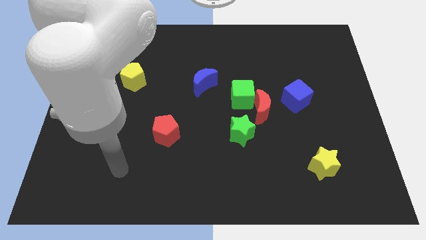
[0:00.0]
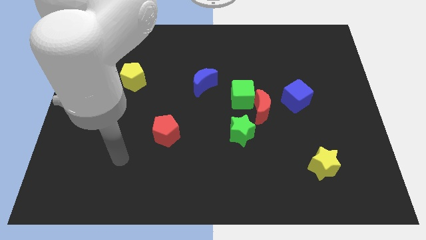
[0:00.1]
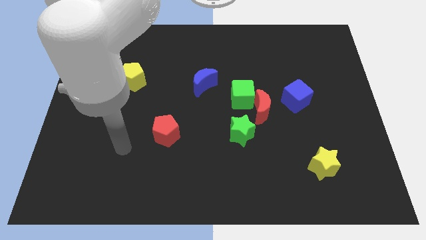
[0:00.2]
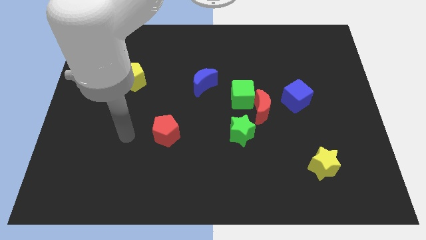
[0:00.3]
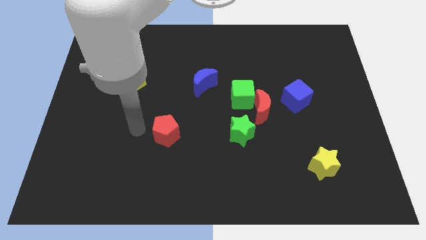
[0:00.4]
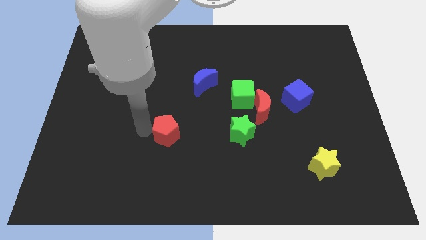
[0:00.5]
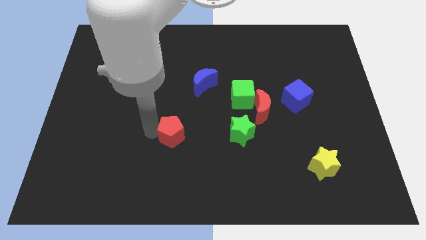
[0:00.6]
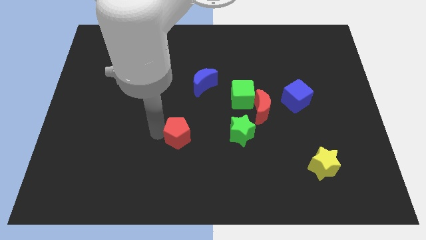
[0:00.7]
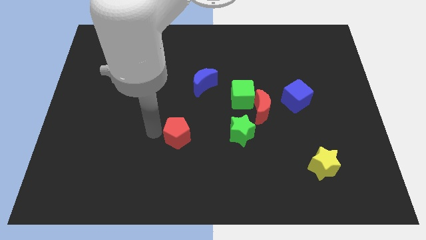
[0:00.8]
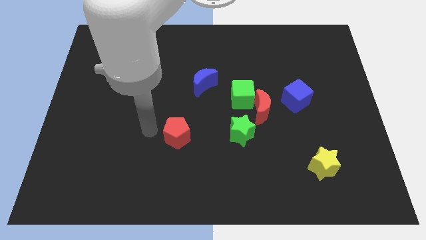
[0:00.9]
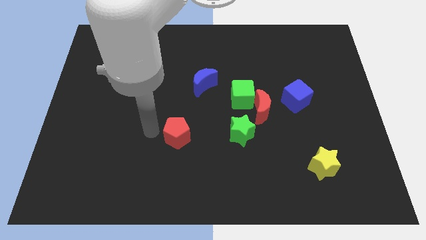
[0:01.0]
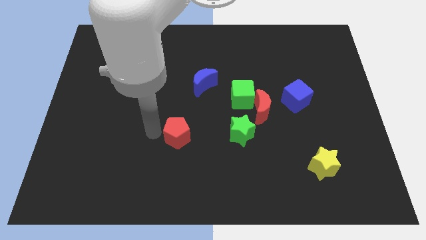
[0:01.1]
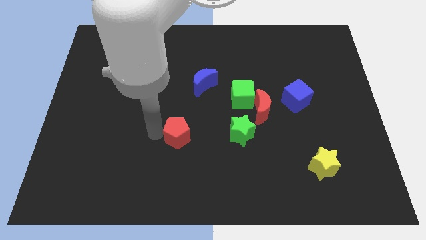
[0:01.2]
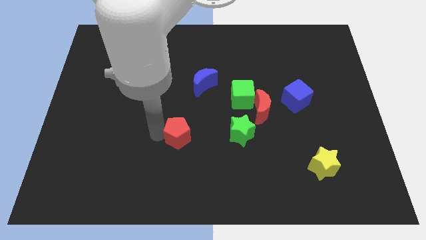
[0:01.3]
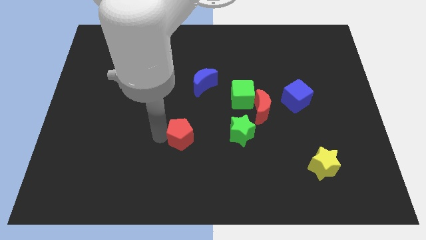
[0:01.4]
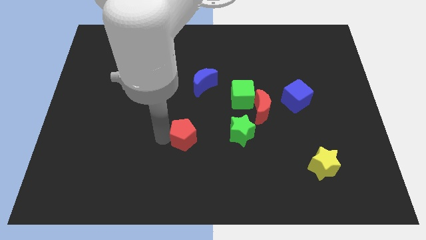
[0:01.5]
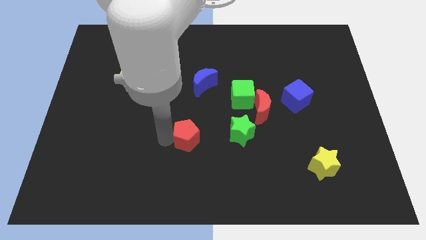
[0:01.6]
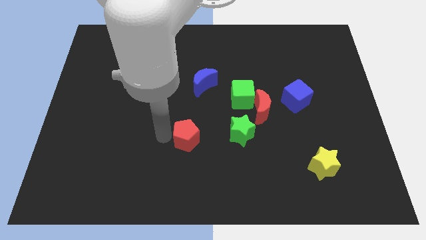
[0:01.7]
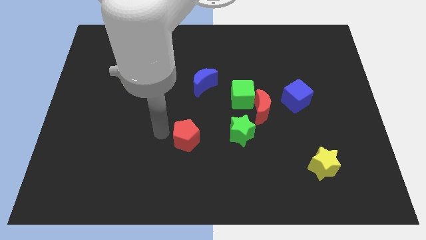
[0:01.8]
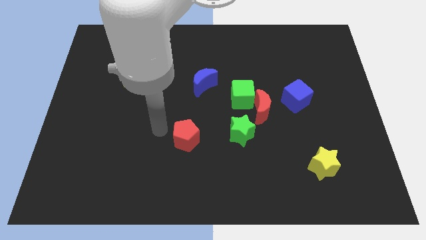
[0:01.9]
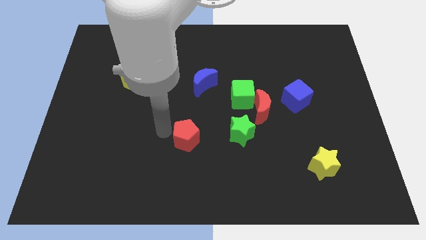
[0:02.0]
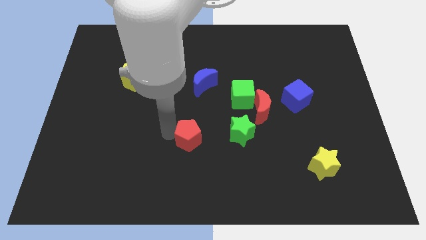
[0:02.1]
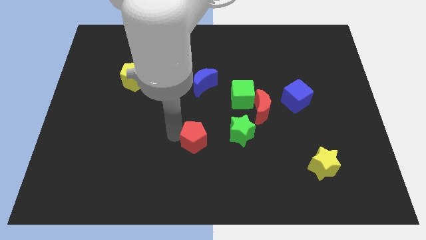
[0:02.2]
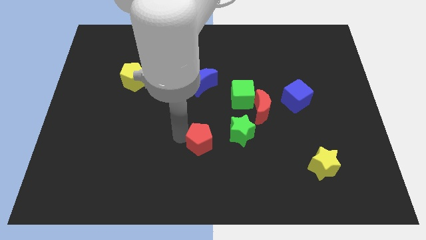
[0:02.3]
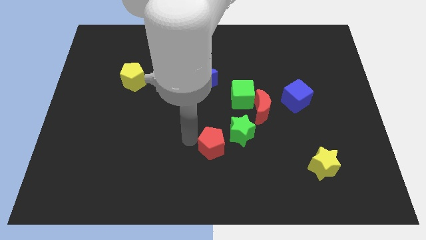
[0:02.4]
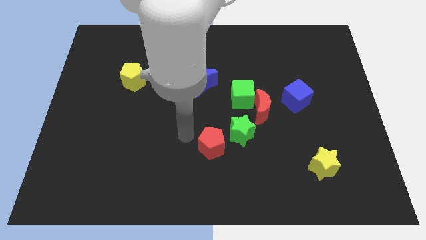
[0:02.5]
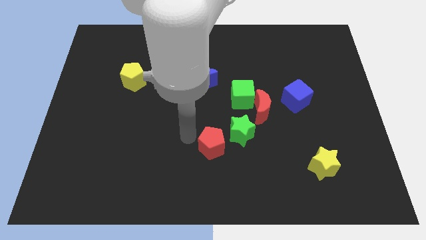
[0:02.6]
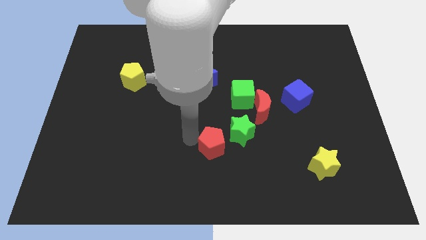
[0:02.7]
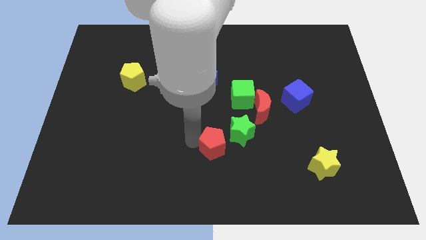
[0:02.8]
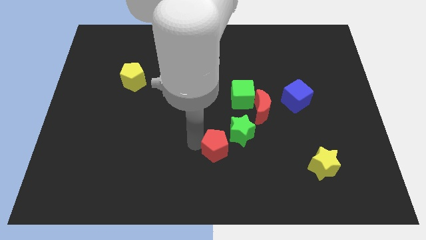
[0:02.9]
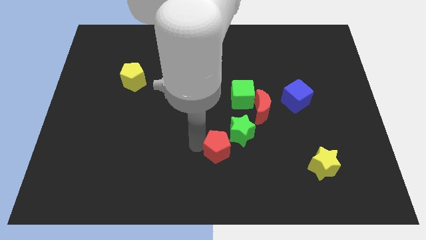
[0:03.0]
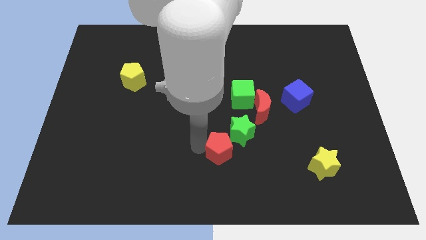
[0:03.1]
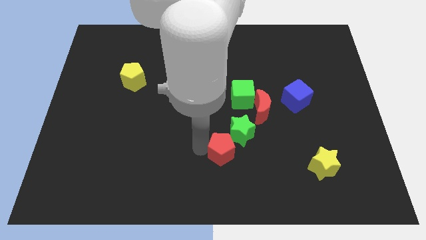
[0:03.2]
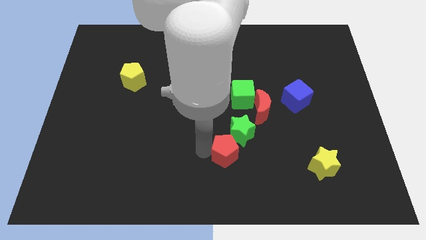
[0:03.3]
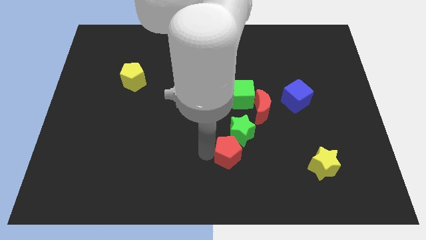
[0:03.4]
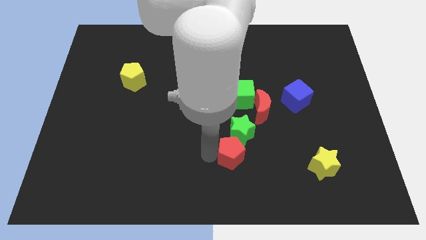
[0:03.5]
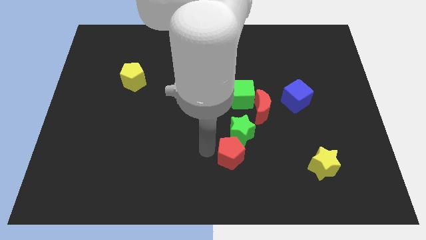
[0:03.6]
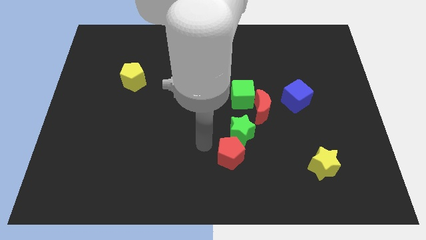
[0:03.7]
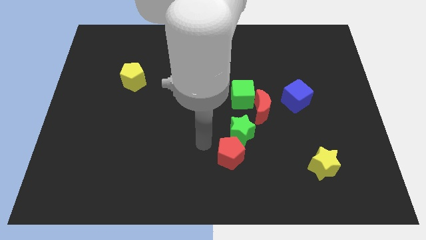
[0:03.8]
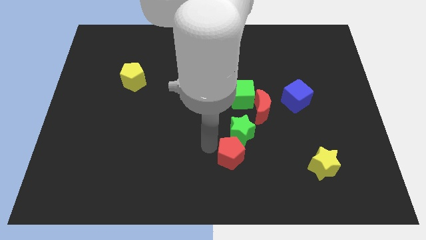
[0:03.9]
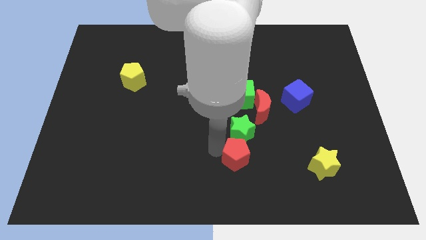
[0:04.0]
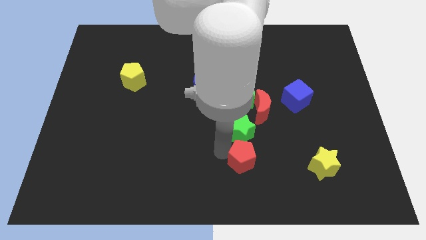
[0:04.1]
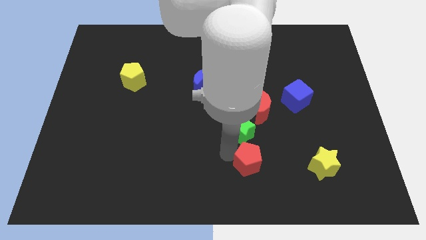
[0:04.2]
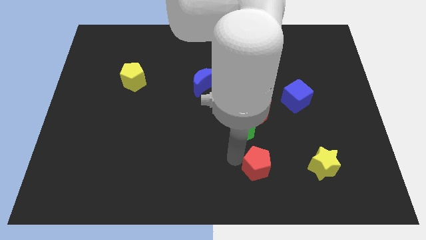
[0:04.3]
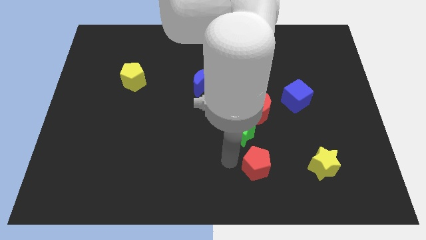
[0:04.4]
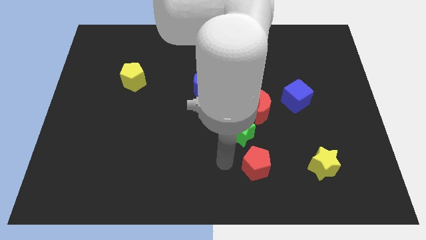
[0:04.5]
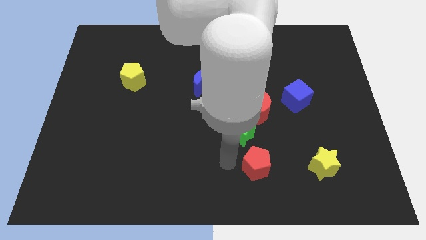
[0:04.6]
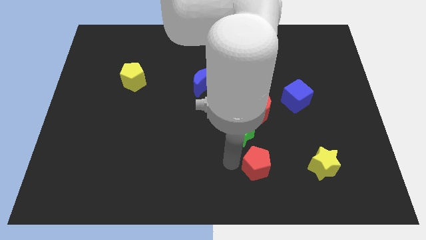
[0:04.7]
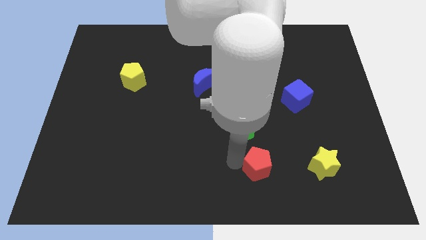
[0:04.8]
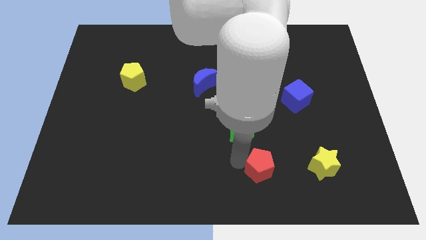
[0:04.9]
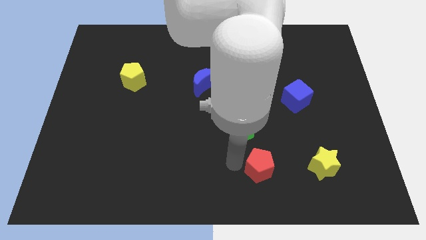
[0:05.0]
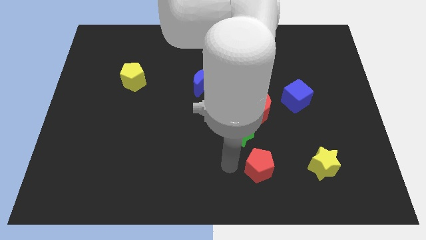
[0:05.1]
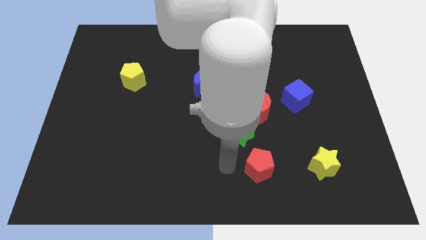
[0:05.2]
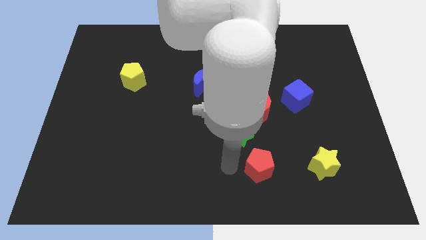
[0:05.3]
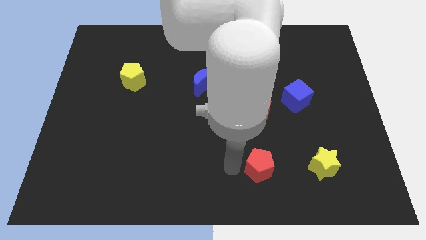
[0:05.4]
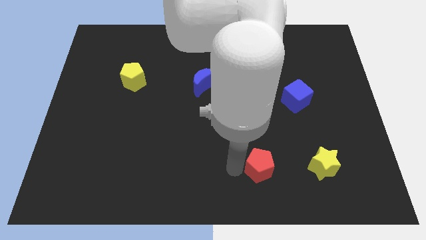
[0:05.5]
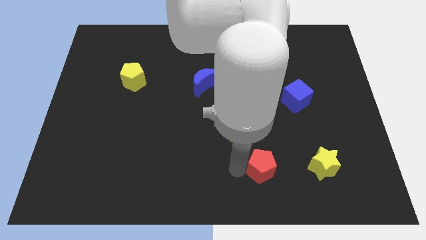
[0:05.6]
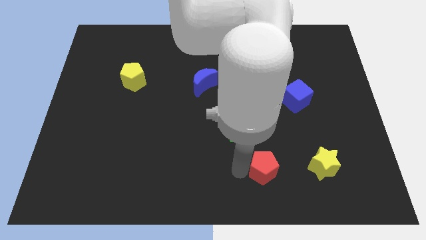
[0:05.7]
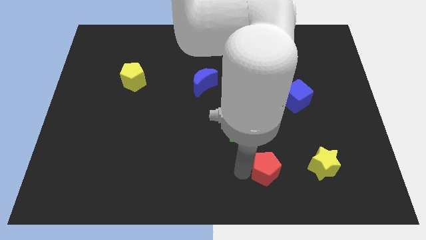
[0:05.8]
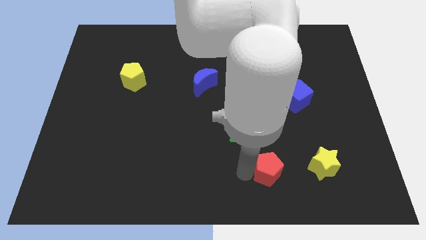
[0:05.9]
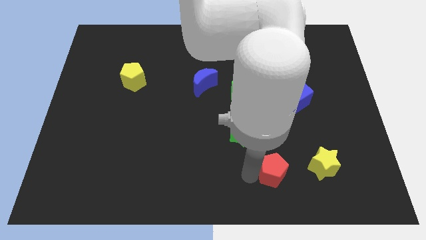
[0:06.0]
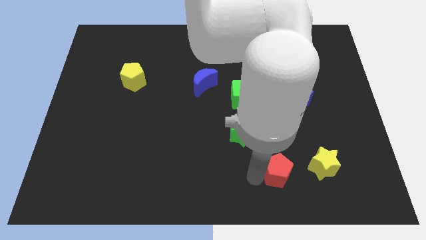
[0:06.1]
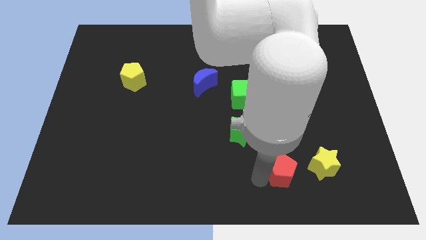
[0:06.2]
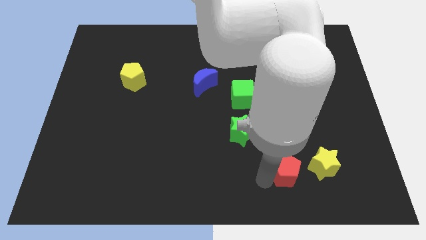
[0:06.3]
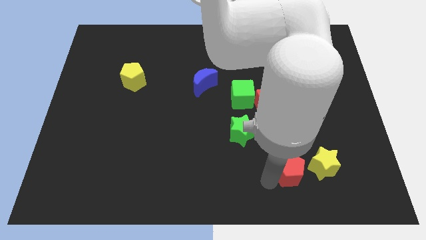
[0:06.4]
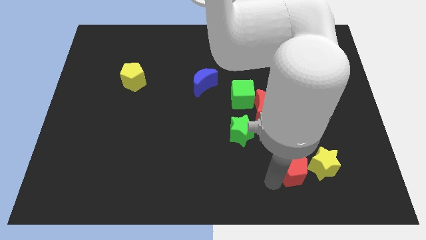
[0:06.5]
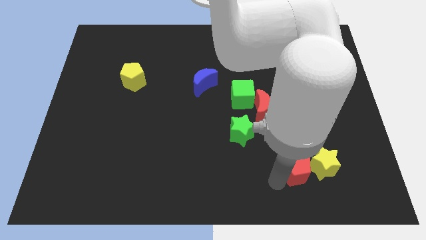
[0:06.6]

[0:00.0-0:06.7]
move the red pentagon next to the yellow star
